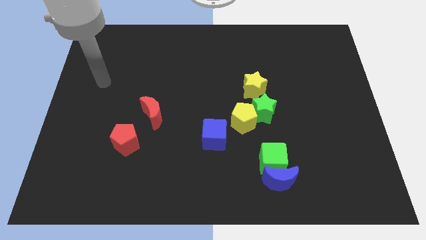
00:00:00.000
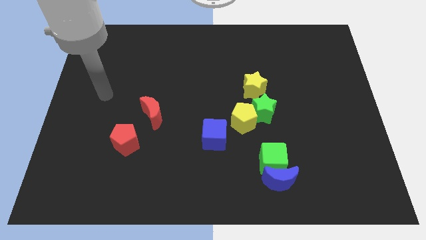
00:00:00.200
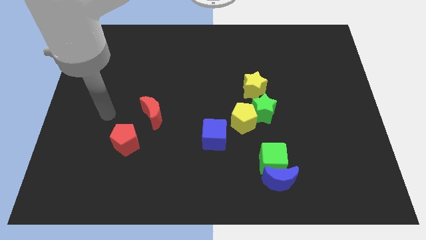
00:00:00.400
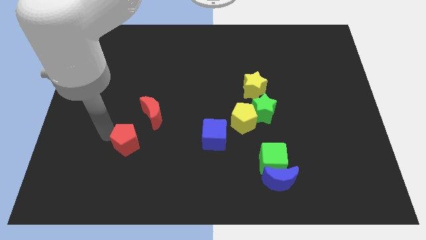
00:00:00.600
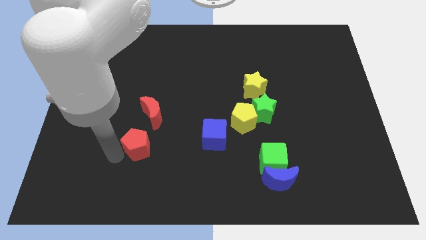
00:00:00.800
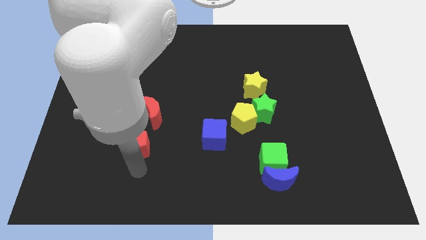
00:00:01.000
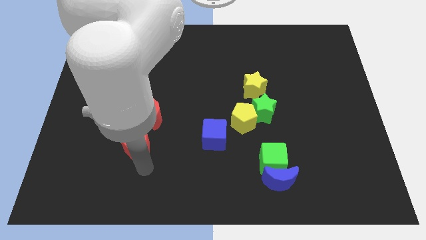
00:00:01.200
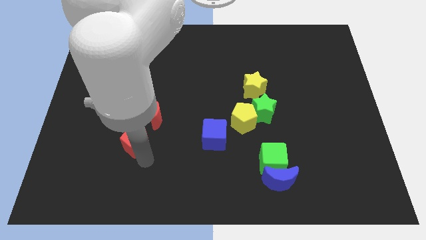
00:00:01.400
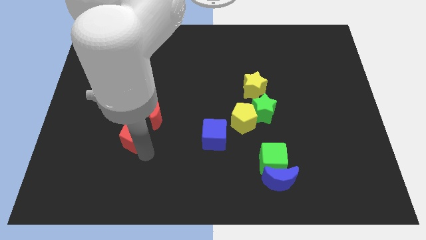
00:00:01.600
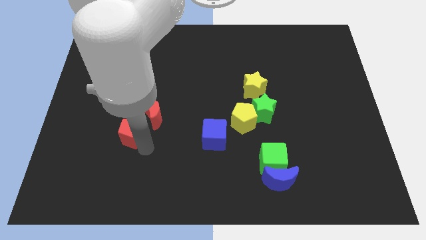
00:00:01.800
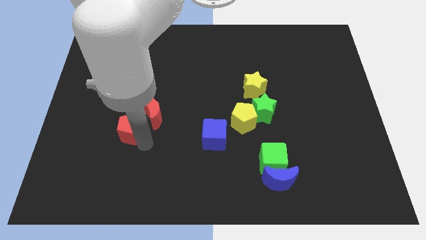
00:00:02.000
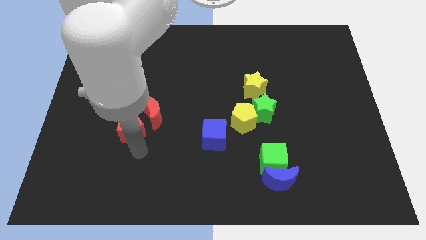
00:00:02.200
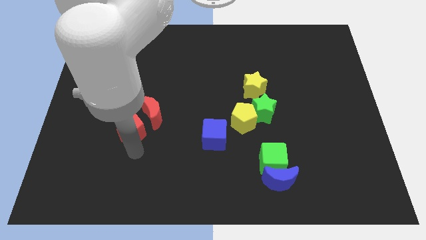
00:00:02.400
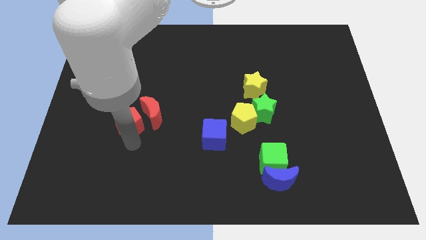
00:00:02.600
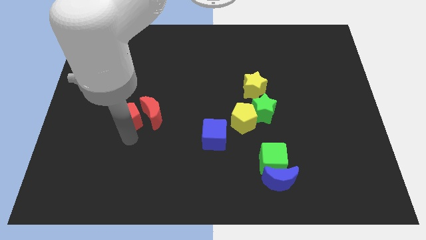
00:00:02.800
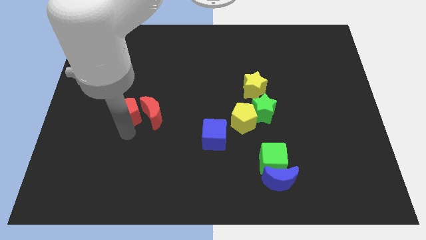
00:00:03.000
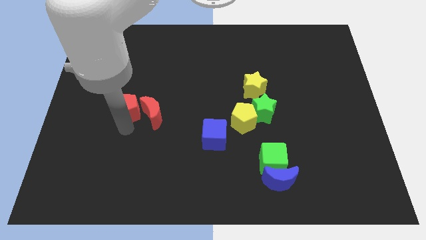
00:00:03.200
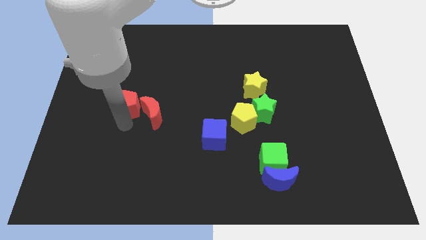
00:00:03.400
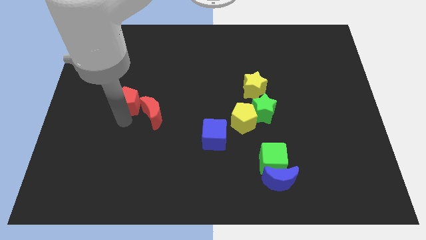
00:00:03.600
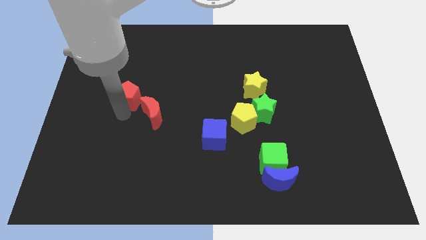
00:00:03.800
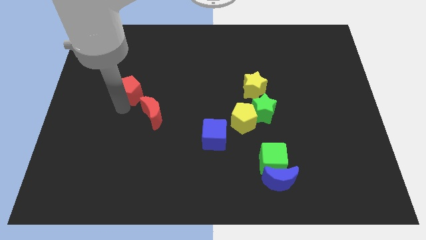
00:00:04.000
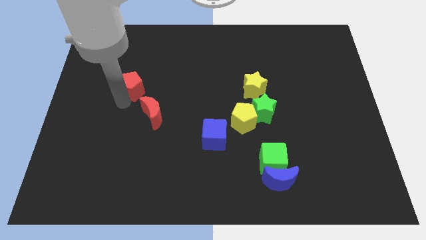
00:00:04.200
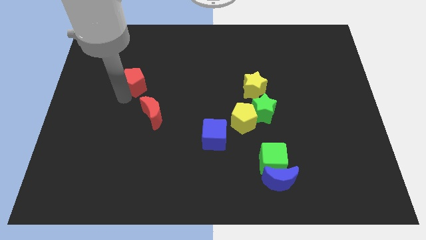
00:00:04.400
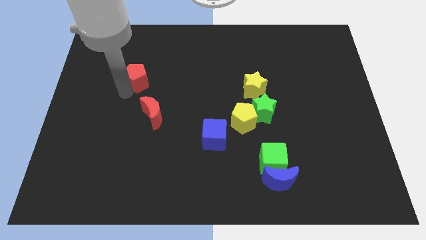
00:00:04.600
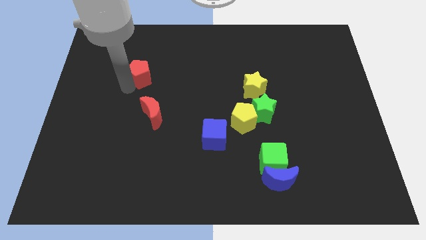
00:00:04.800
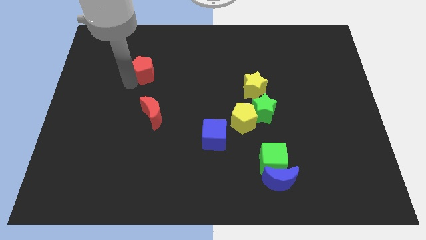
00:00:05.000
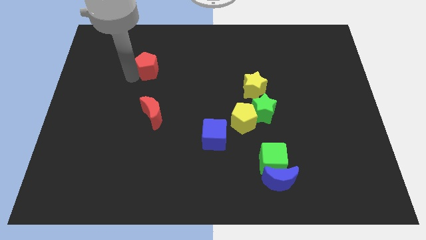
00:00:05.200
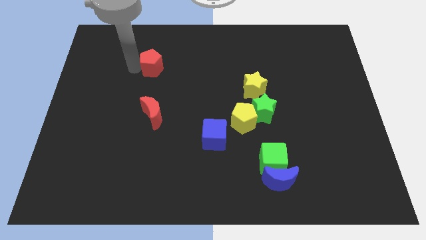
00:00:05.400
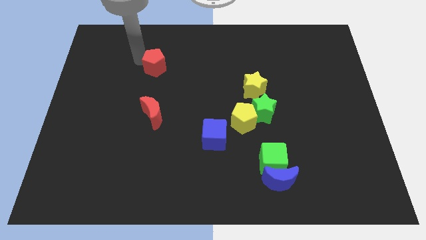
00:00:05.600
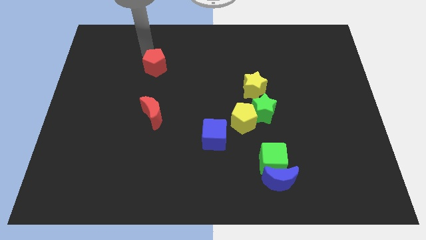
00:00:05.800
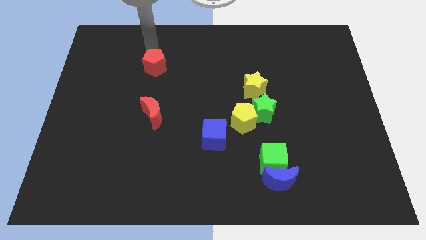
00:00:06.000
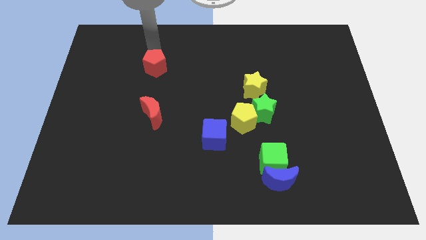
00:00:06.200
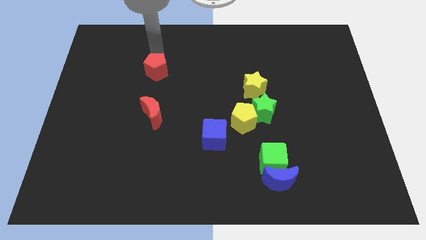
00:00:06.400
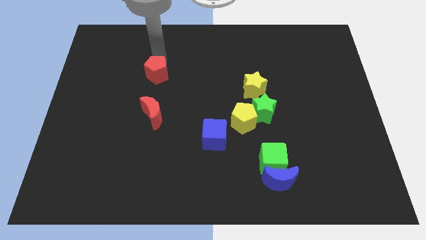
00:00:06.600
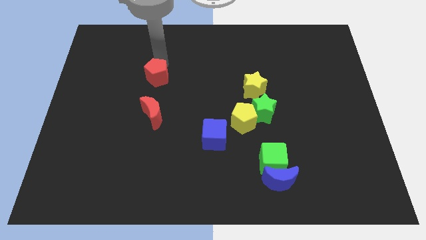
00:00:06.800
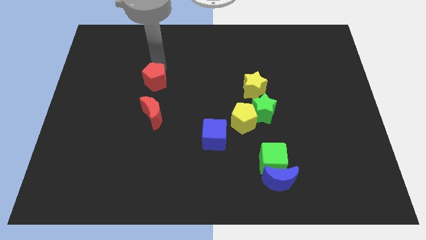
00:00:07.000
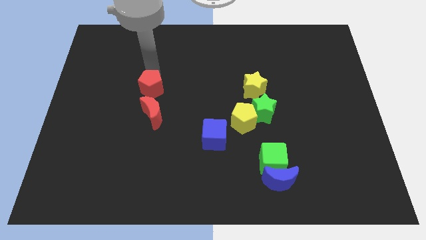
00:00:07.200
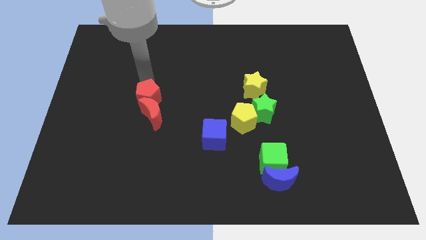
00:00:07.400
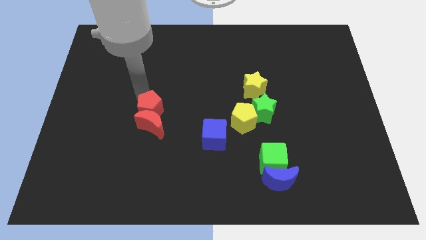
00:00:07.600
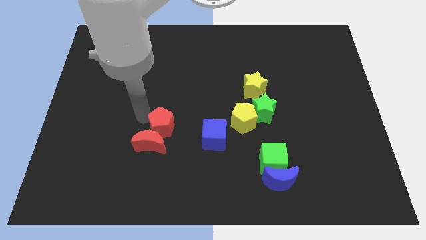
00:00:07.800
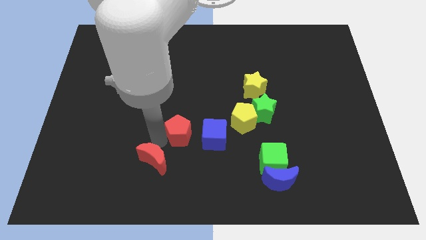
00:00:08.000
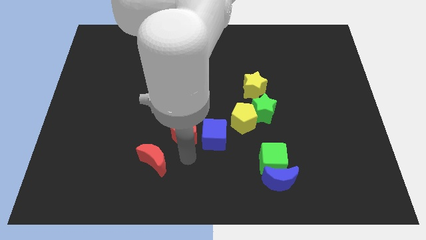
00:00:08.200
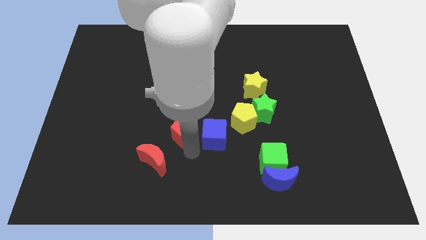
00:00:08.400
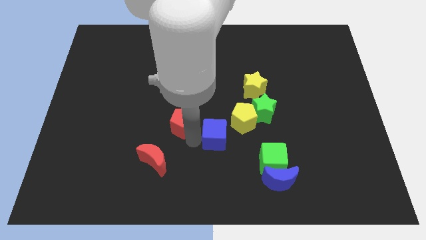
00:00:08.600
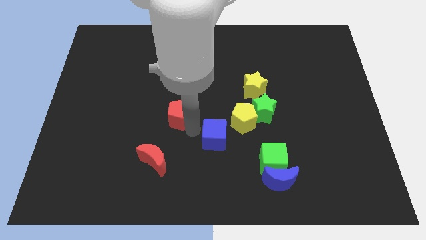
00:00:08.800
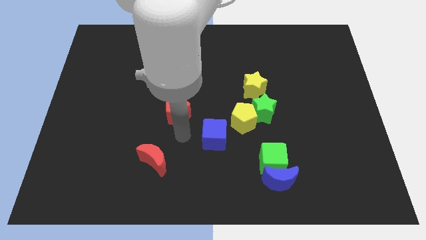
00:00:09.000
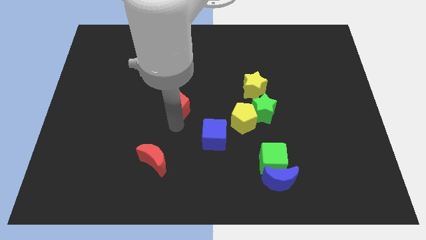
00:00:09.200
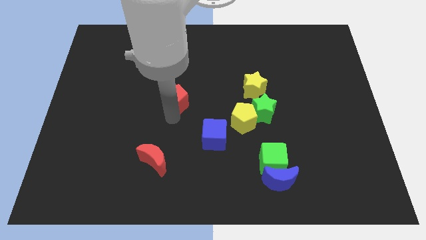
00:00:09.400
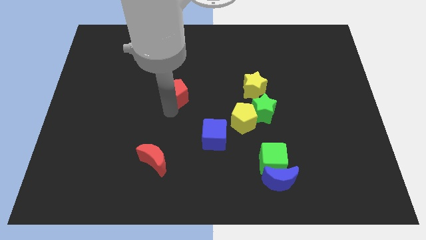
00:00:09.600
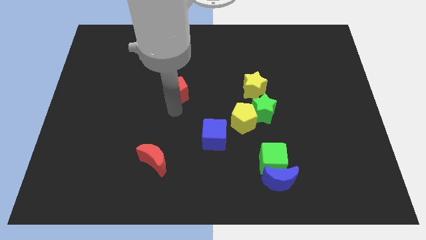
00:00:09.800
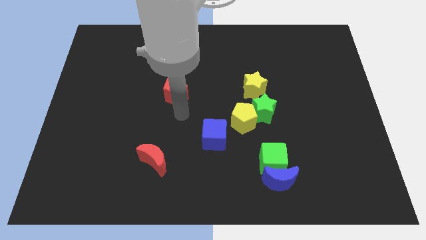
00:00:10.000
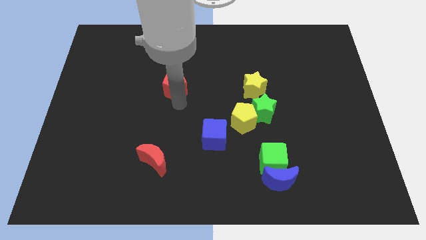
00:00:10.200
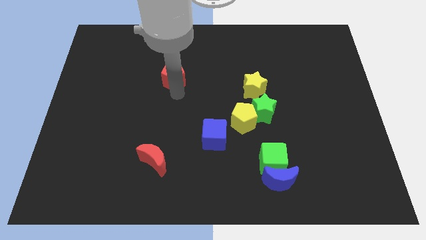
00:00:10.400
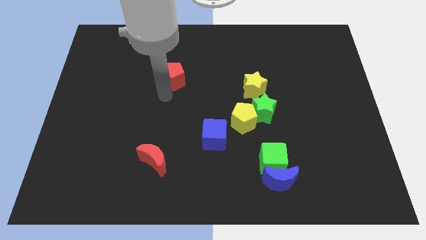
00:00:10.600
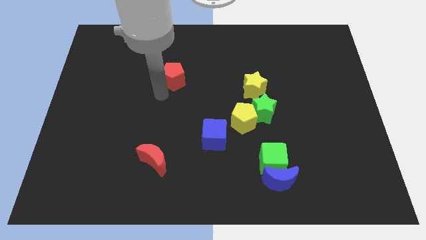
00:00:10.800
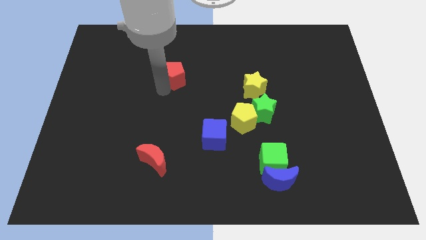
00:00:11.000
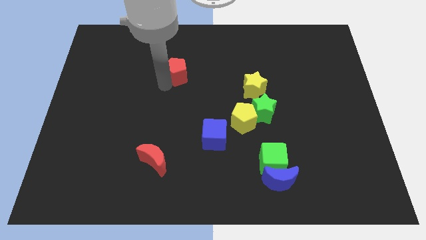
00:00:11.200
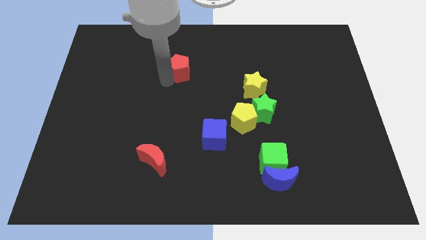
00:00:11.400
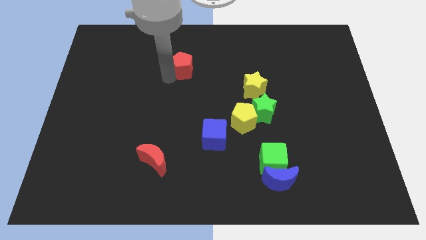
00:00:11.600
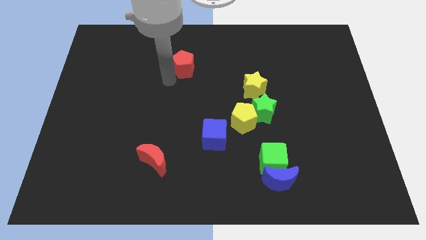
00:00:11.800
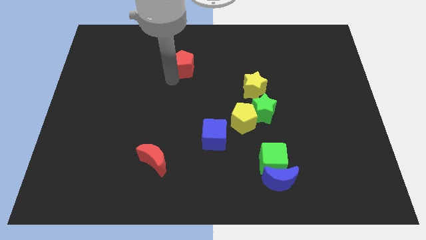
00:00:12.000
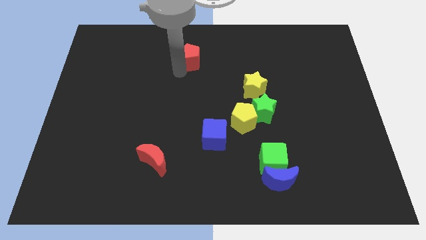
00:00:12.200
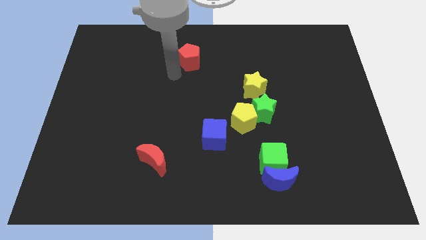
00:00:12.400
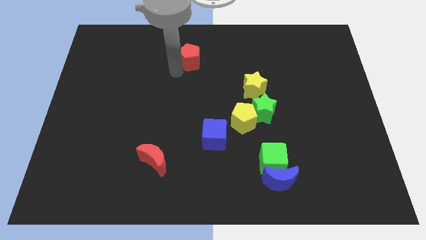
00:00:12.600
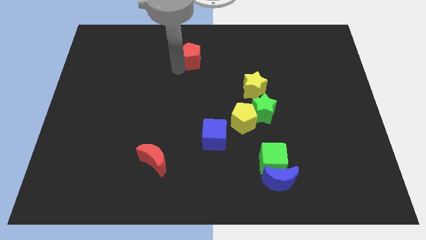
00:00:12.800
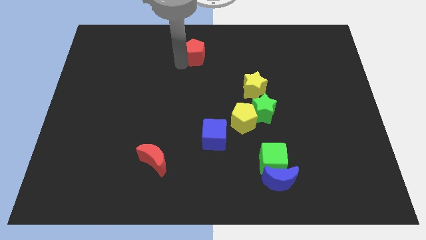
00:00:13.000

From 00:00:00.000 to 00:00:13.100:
slide the red pentagon to the top side
